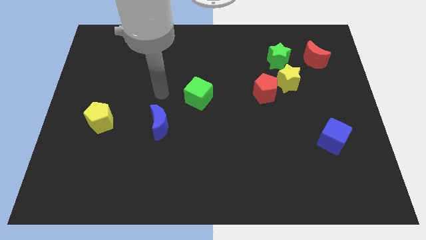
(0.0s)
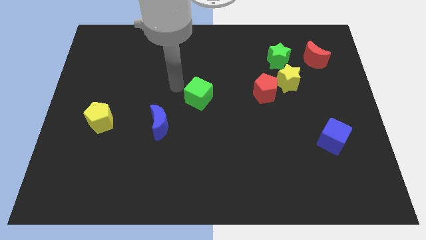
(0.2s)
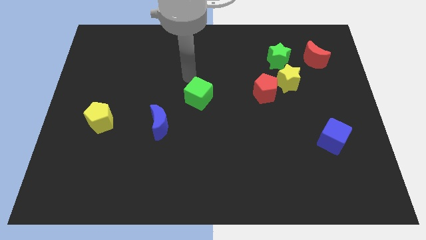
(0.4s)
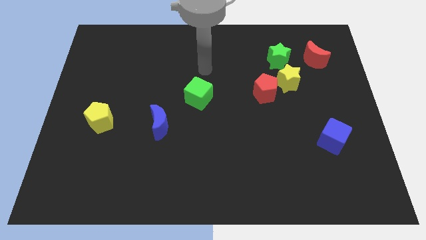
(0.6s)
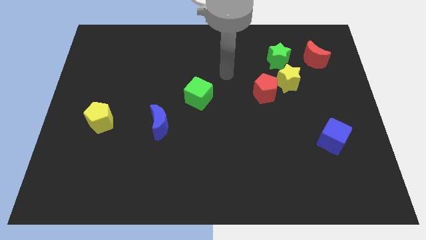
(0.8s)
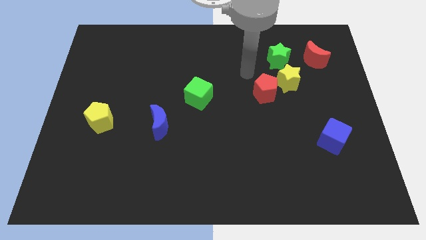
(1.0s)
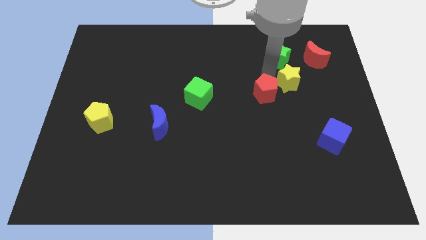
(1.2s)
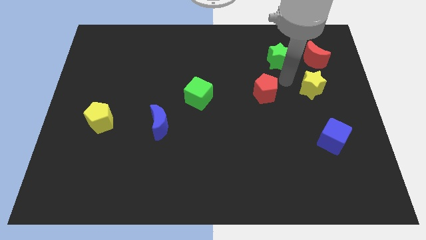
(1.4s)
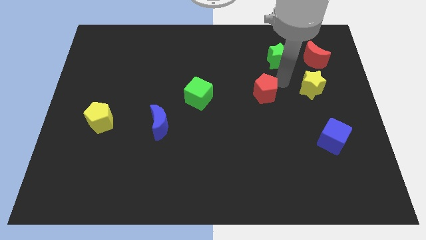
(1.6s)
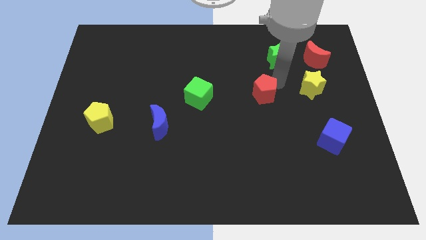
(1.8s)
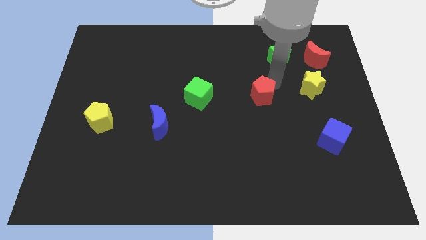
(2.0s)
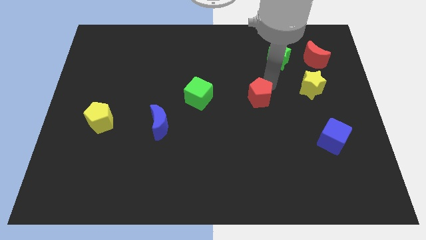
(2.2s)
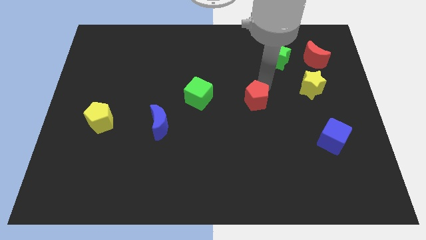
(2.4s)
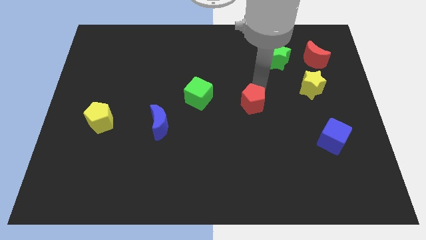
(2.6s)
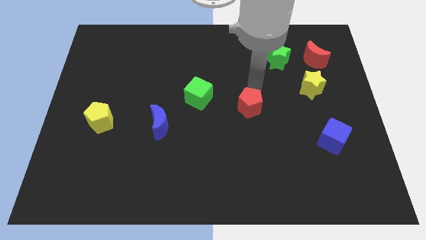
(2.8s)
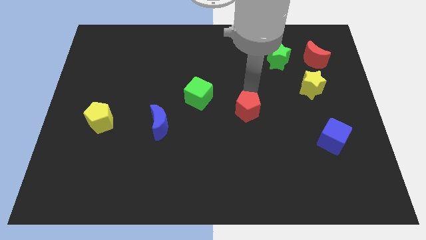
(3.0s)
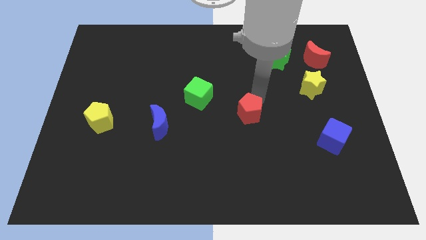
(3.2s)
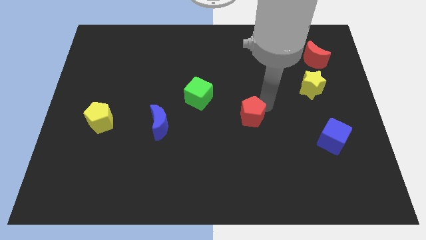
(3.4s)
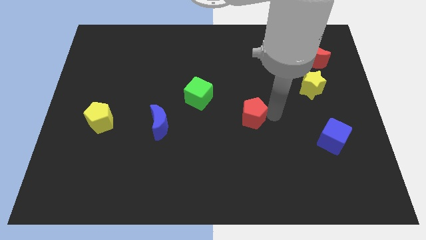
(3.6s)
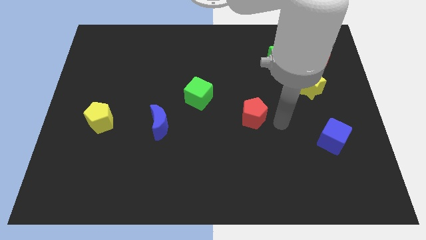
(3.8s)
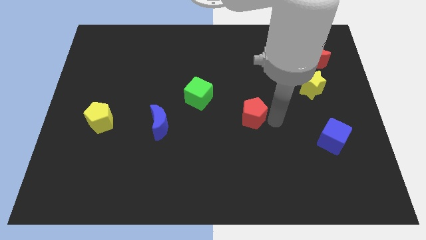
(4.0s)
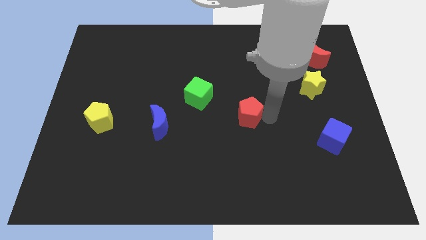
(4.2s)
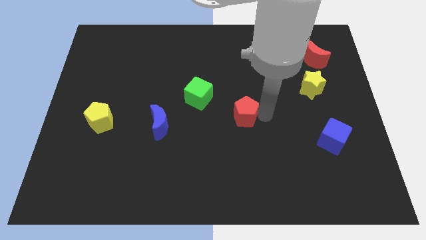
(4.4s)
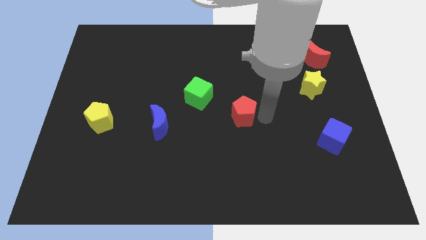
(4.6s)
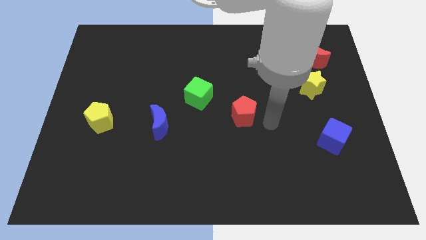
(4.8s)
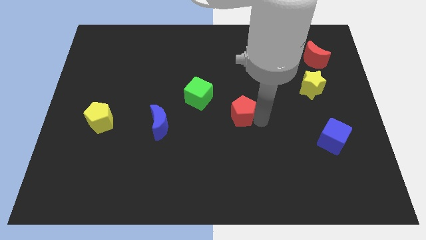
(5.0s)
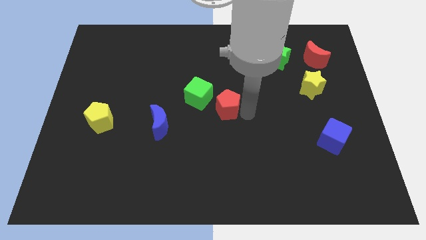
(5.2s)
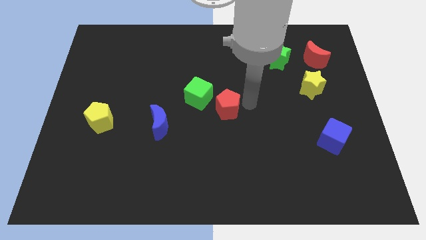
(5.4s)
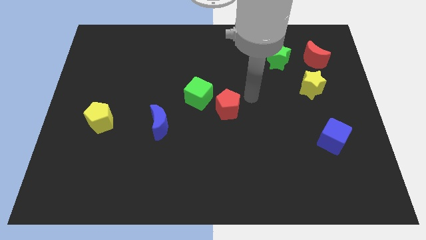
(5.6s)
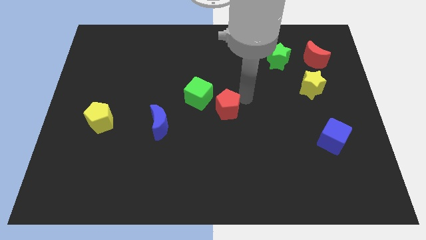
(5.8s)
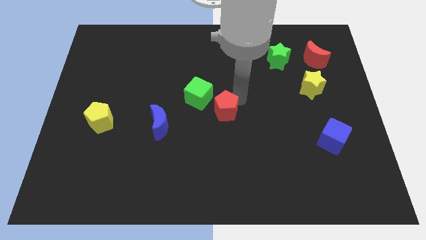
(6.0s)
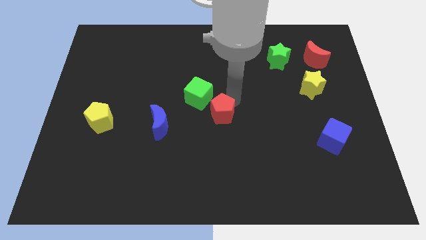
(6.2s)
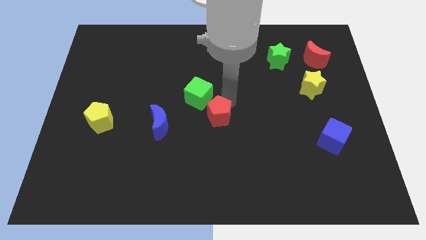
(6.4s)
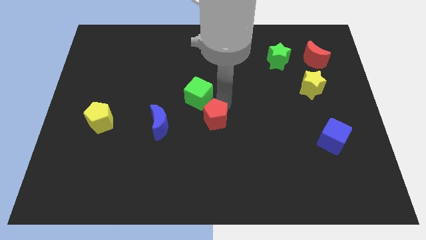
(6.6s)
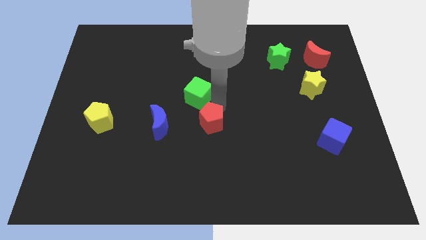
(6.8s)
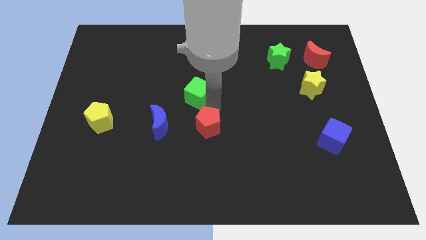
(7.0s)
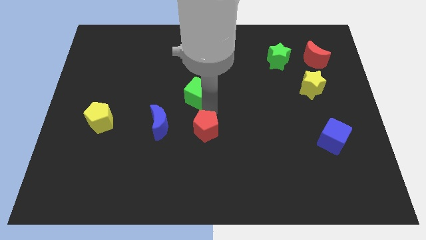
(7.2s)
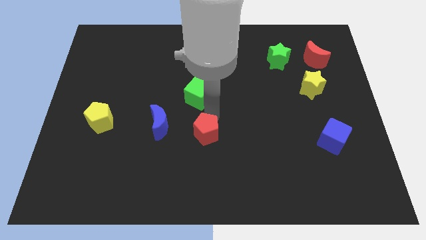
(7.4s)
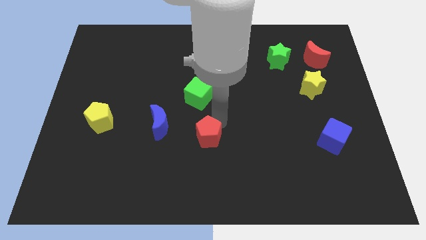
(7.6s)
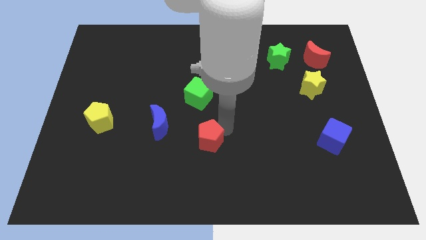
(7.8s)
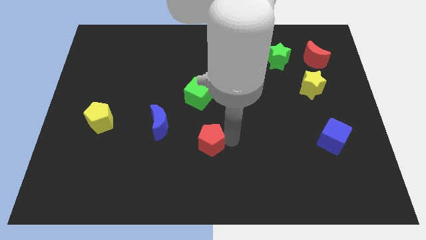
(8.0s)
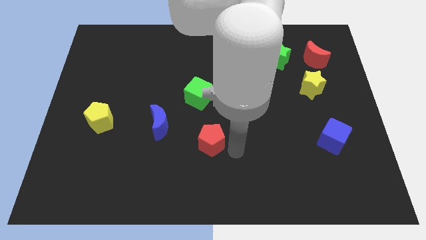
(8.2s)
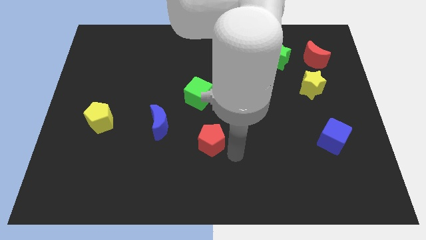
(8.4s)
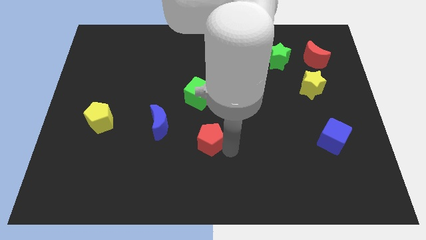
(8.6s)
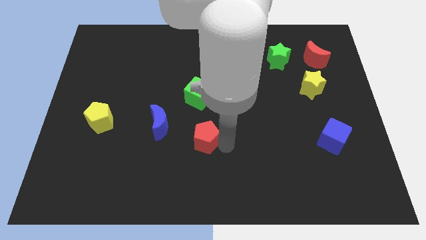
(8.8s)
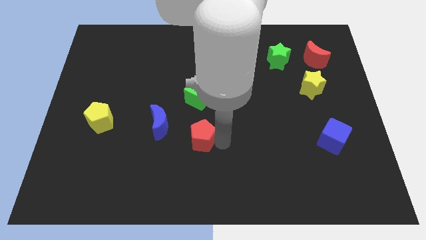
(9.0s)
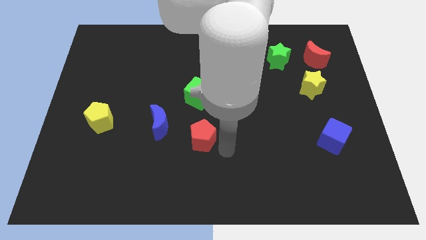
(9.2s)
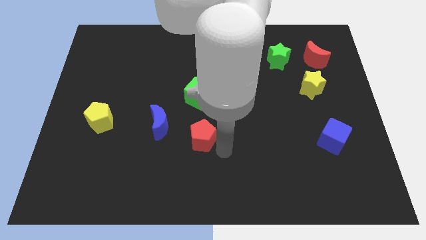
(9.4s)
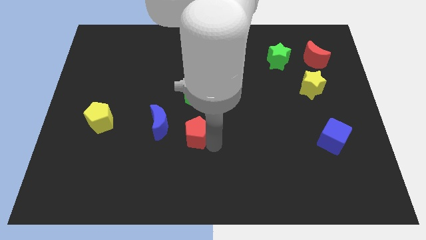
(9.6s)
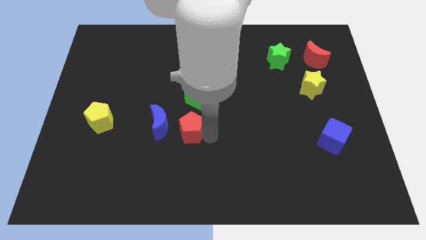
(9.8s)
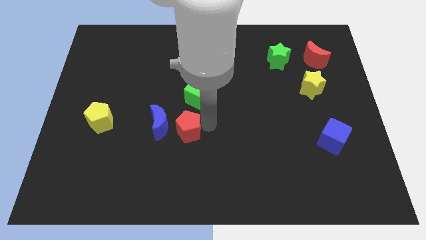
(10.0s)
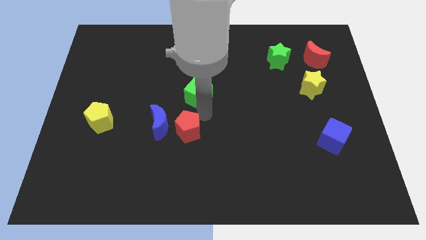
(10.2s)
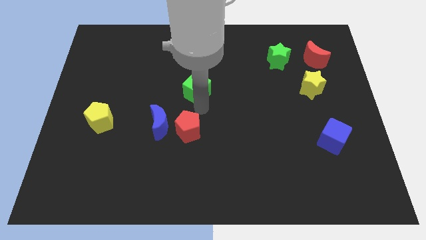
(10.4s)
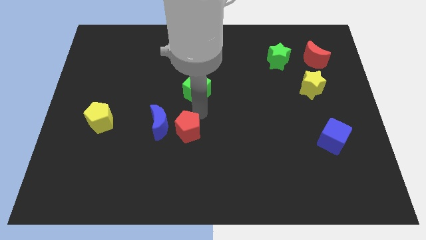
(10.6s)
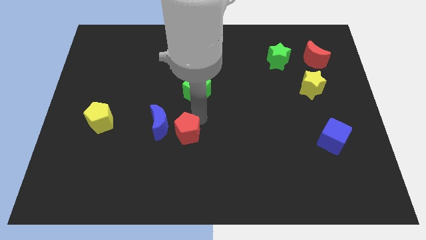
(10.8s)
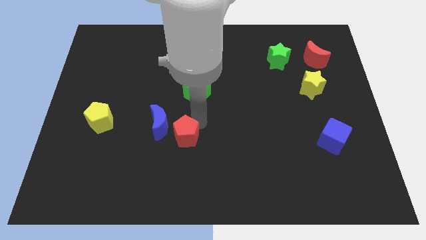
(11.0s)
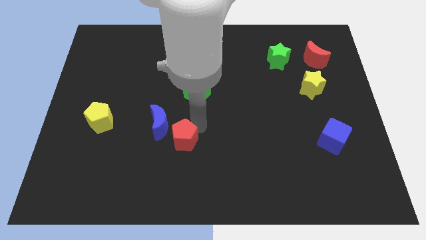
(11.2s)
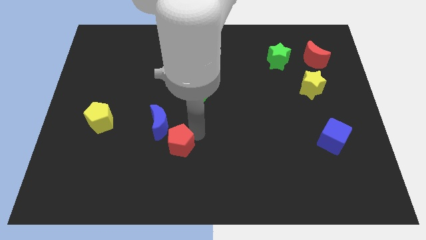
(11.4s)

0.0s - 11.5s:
push the red pentagon below the blue moon

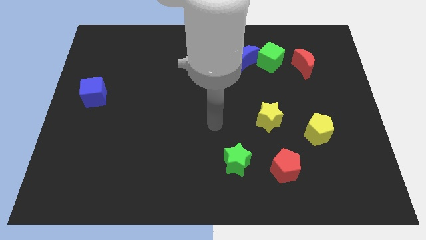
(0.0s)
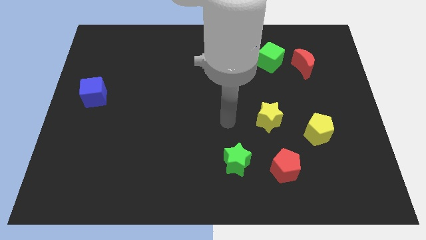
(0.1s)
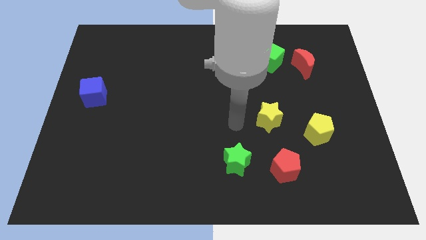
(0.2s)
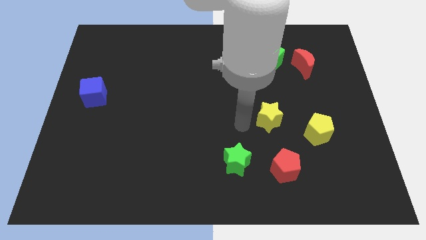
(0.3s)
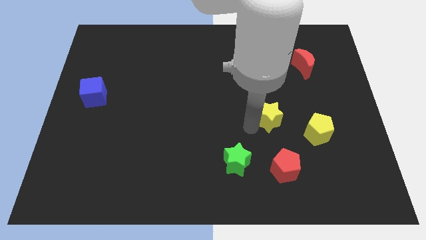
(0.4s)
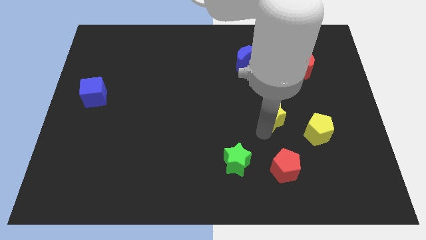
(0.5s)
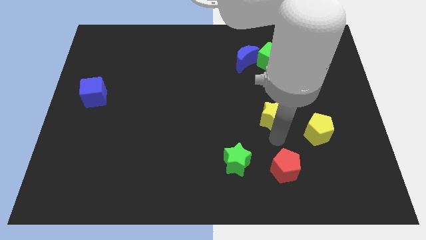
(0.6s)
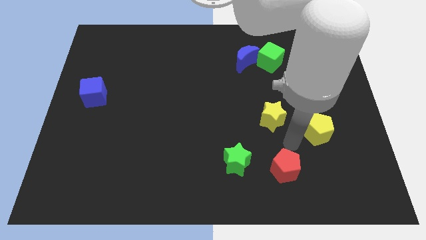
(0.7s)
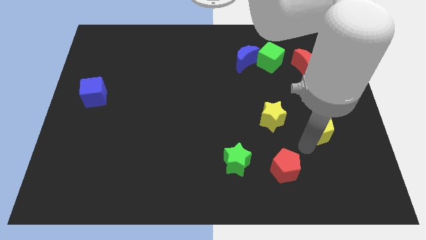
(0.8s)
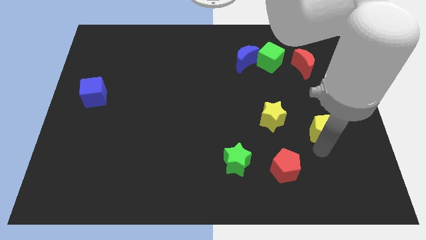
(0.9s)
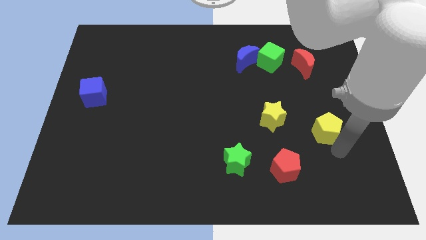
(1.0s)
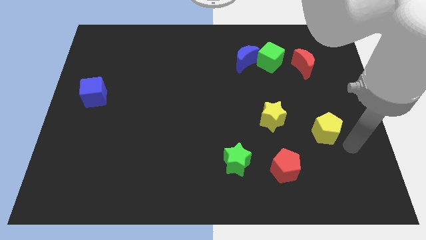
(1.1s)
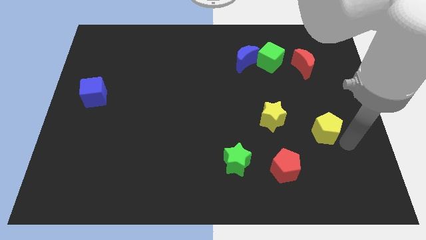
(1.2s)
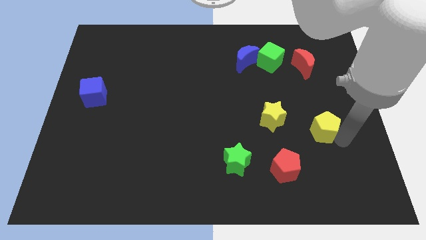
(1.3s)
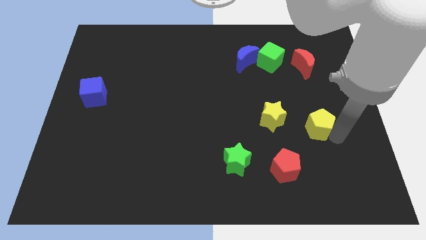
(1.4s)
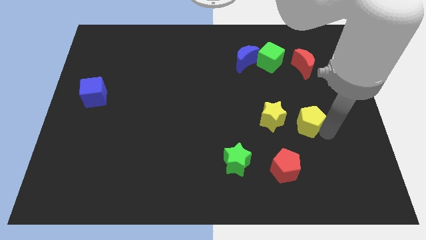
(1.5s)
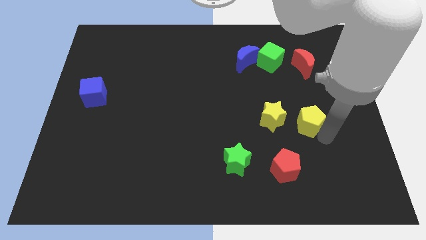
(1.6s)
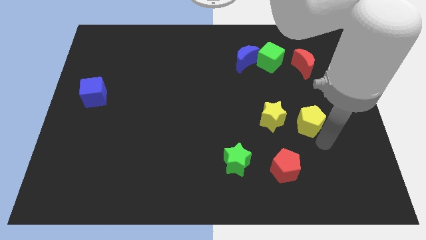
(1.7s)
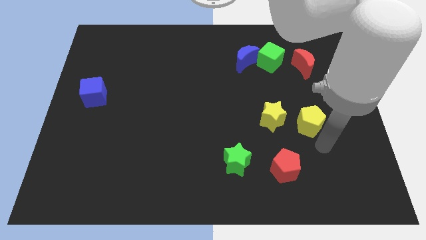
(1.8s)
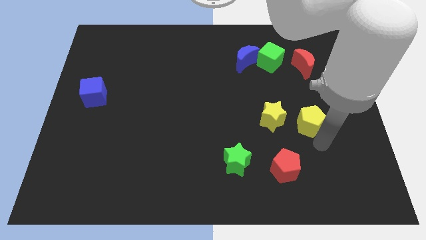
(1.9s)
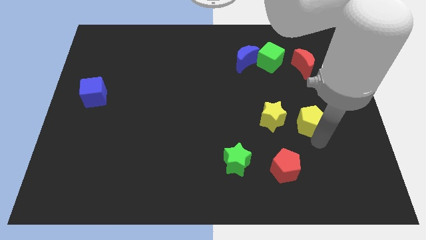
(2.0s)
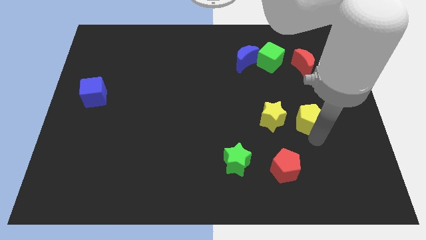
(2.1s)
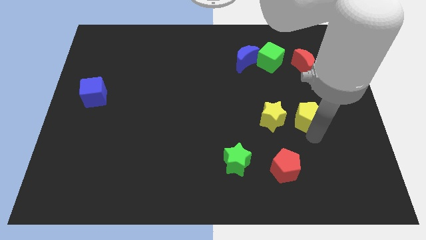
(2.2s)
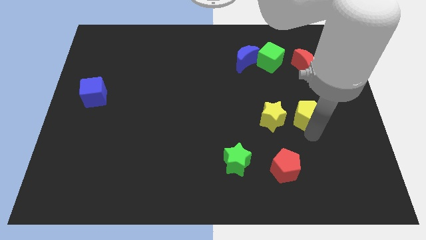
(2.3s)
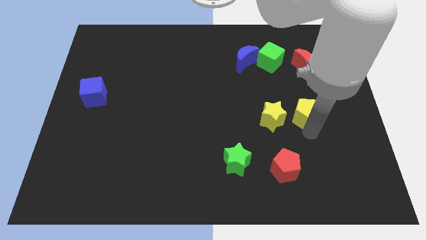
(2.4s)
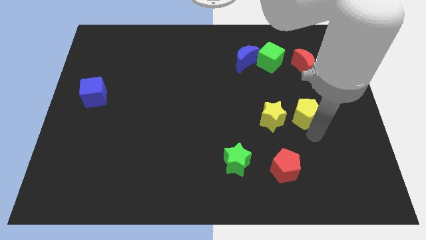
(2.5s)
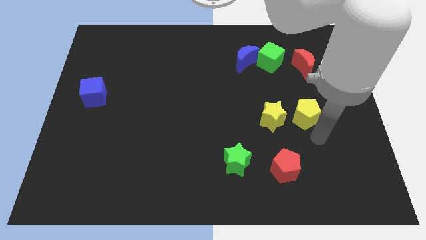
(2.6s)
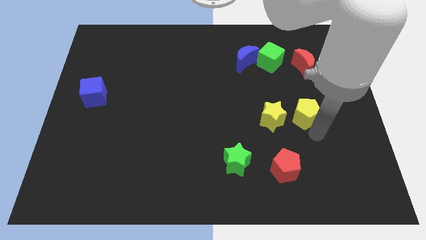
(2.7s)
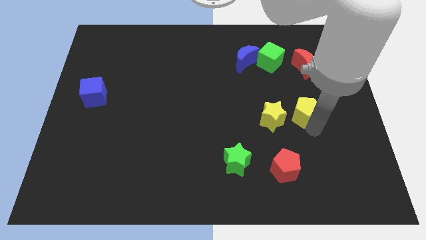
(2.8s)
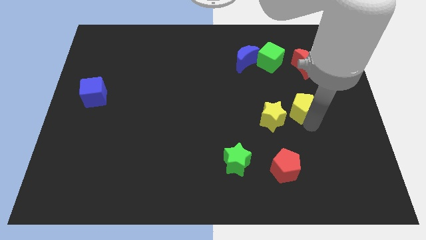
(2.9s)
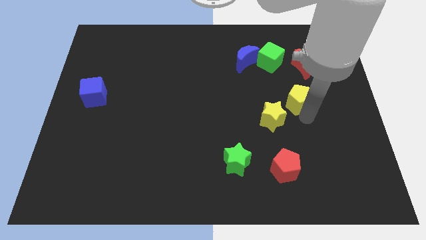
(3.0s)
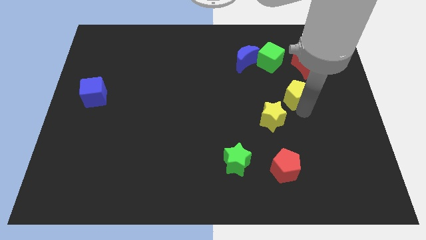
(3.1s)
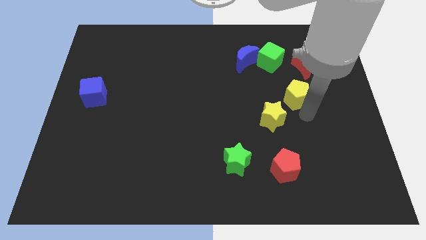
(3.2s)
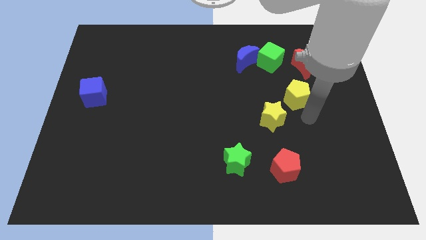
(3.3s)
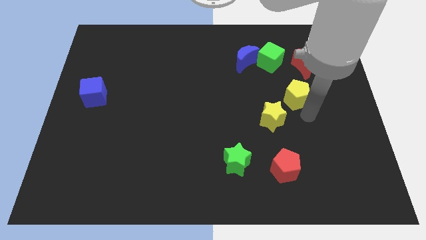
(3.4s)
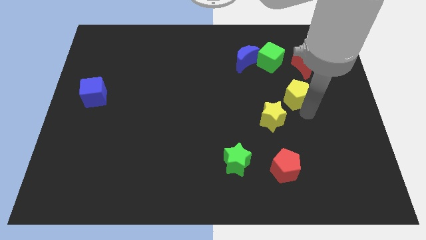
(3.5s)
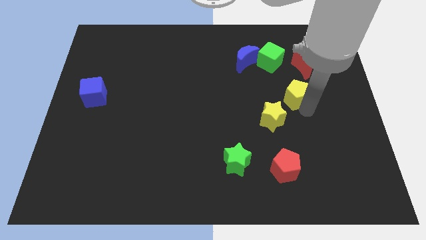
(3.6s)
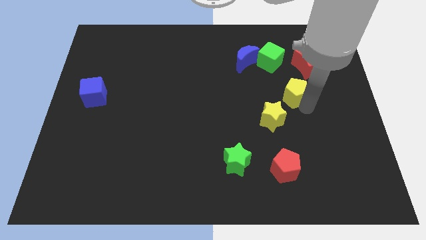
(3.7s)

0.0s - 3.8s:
push the yellow pentagon to the bottom left side of the red moon
